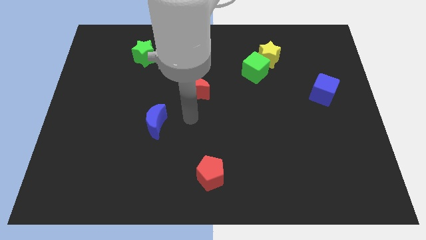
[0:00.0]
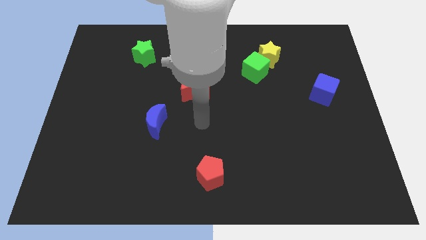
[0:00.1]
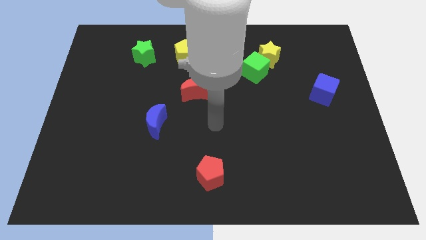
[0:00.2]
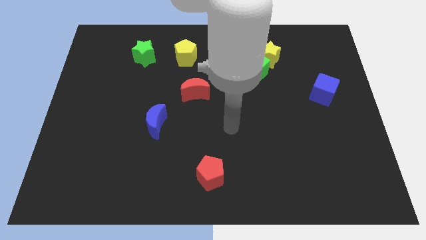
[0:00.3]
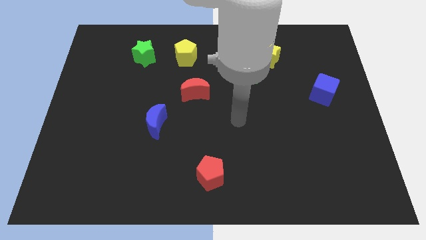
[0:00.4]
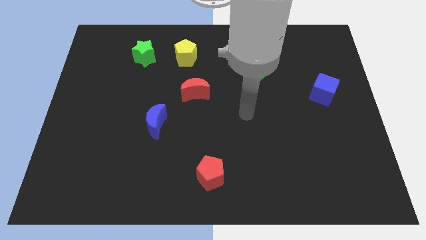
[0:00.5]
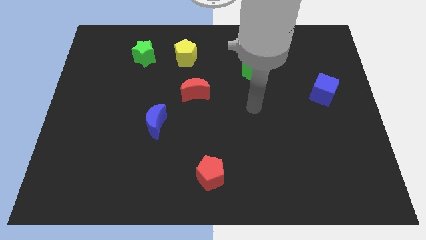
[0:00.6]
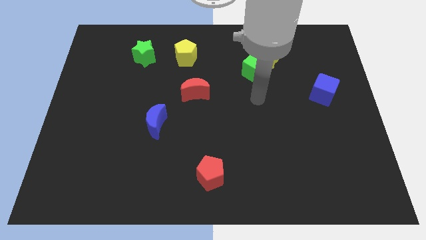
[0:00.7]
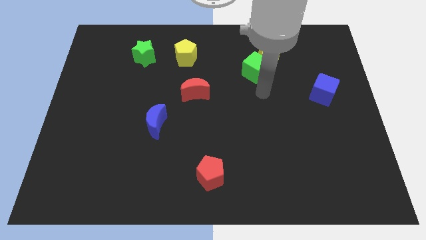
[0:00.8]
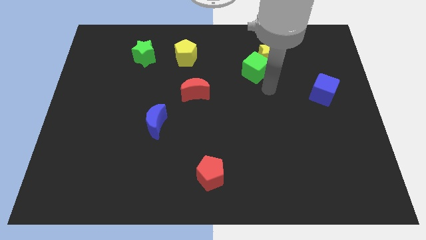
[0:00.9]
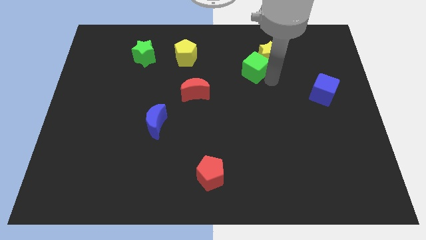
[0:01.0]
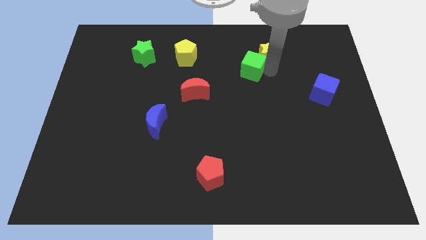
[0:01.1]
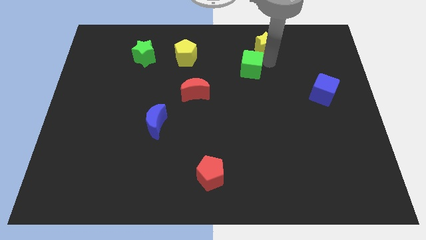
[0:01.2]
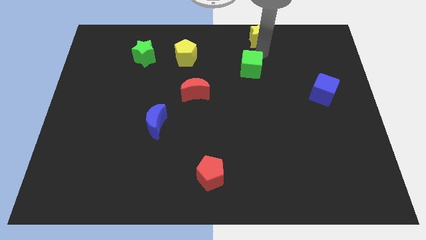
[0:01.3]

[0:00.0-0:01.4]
move the green cube away from the yellow star

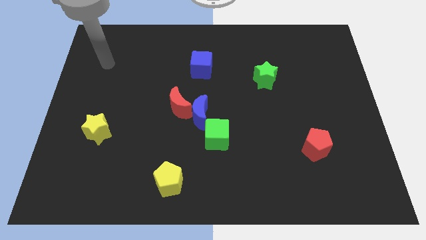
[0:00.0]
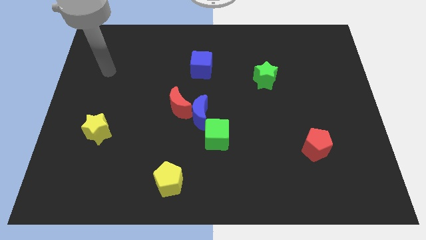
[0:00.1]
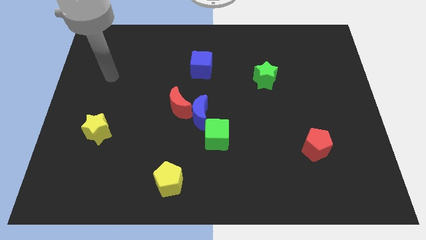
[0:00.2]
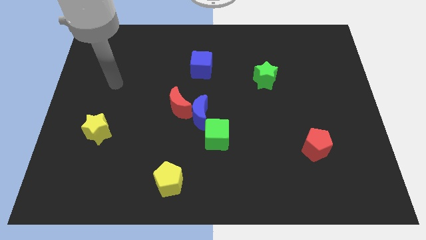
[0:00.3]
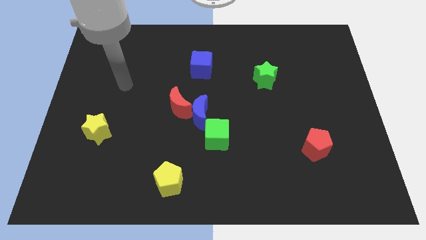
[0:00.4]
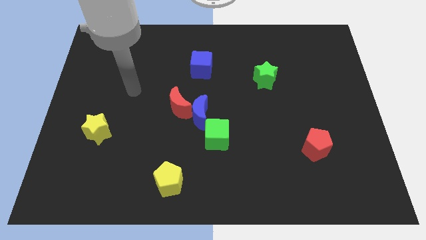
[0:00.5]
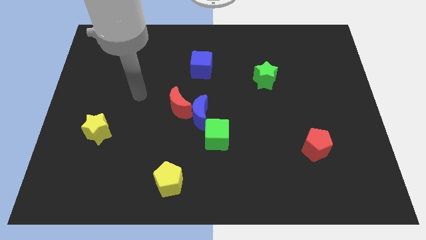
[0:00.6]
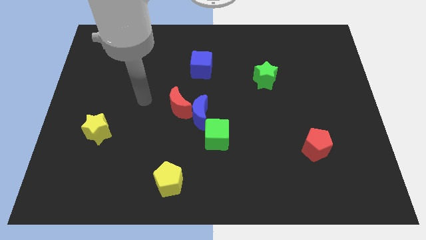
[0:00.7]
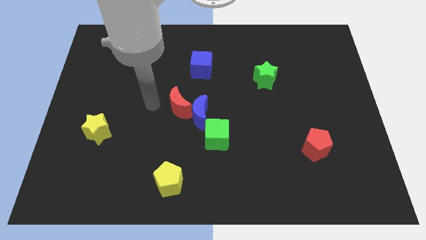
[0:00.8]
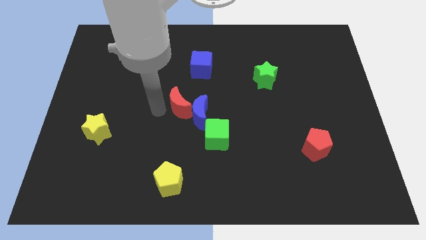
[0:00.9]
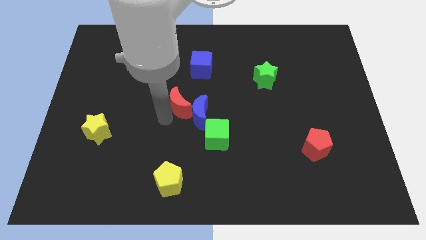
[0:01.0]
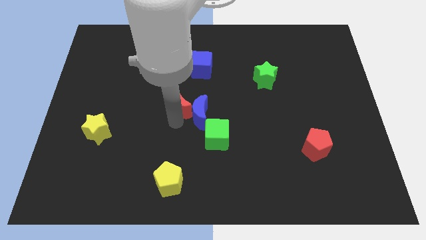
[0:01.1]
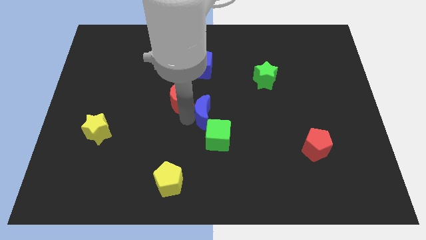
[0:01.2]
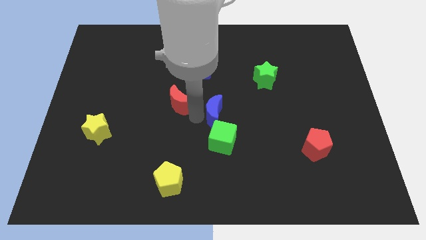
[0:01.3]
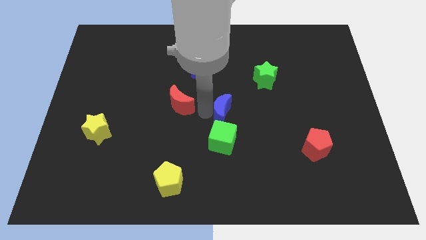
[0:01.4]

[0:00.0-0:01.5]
move the red moon away from the blue moon

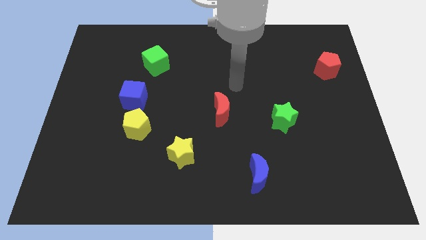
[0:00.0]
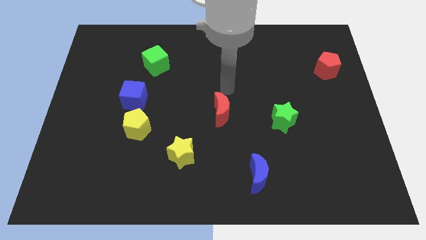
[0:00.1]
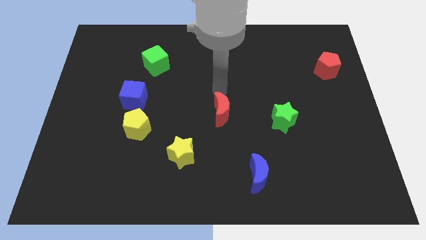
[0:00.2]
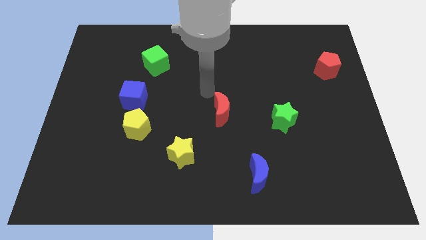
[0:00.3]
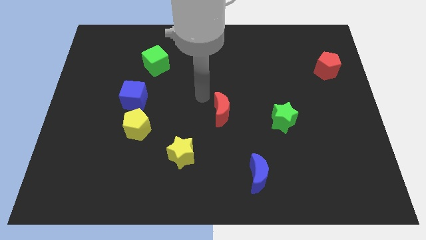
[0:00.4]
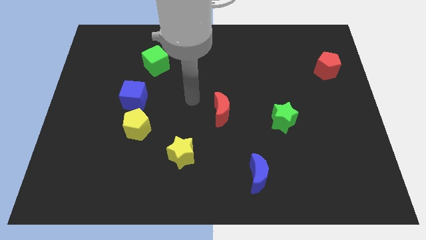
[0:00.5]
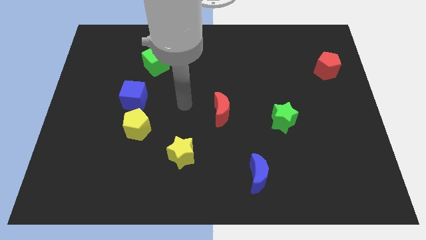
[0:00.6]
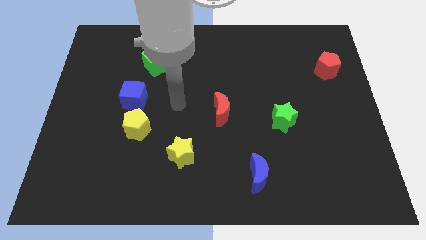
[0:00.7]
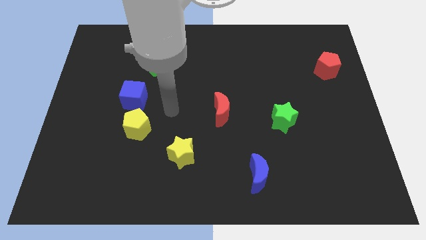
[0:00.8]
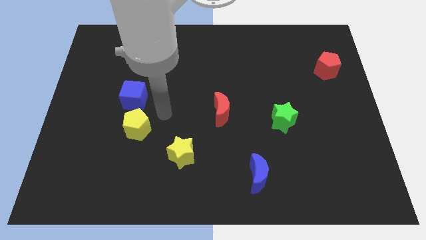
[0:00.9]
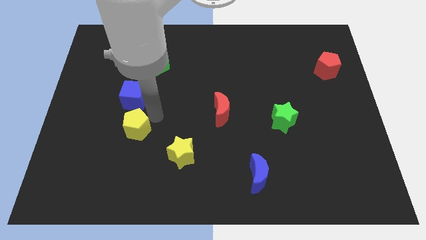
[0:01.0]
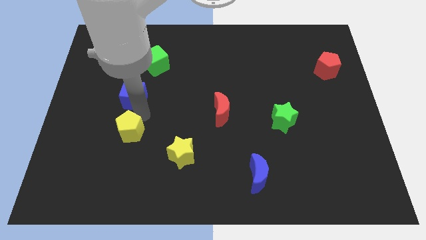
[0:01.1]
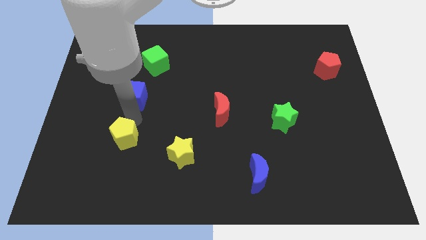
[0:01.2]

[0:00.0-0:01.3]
move the blue cube away from the yellow pentagon

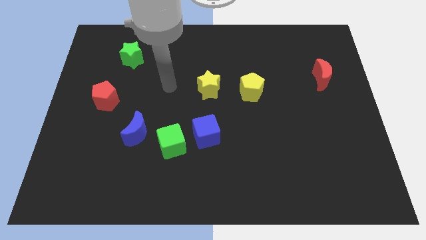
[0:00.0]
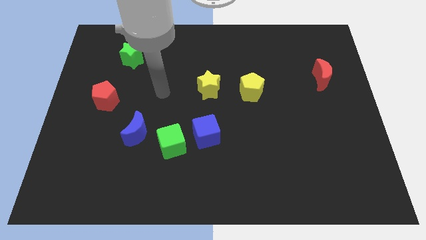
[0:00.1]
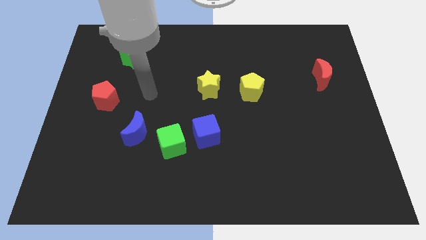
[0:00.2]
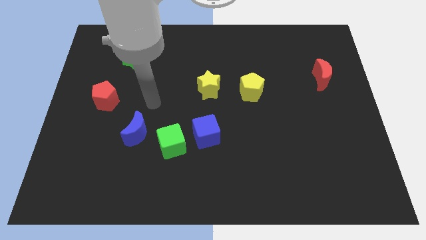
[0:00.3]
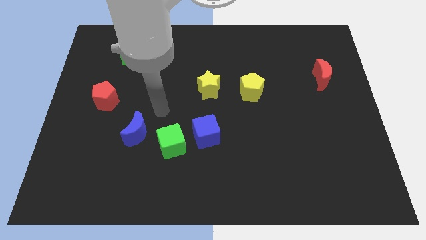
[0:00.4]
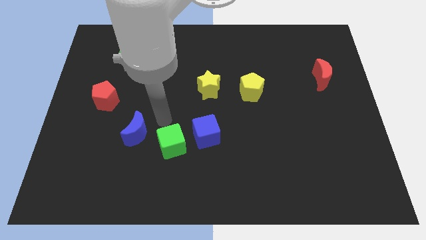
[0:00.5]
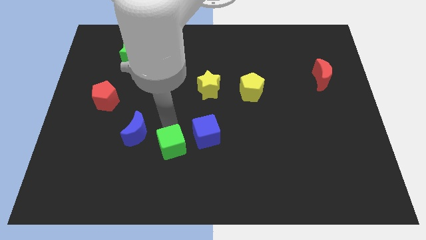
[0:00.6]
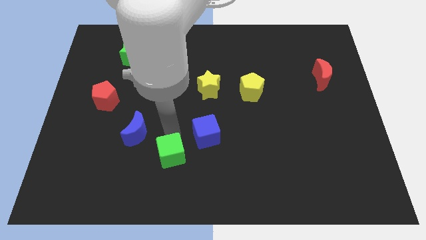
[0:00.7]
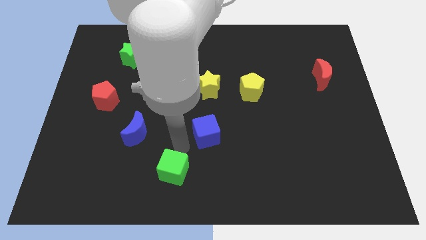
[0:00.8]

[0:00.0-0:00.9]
move the blue cube away from the green cube

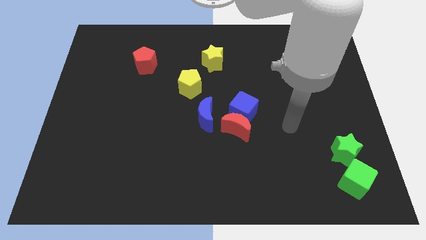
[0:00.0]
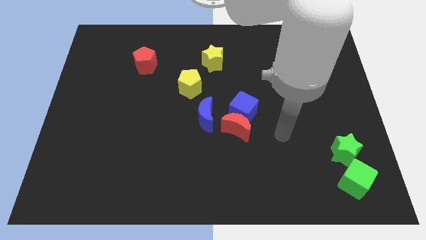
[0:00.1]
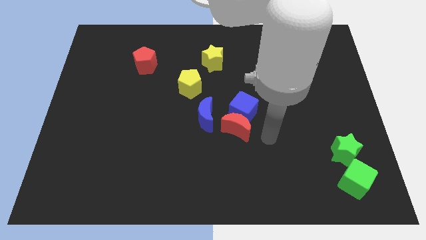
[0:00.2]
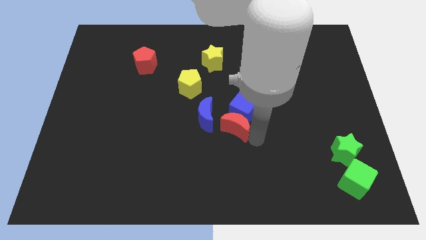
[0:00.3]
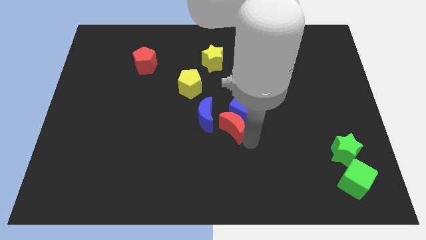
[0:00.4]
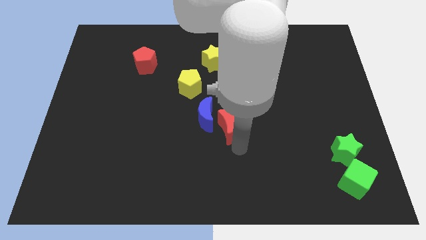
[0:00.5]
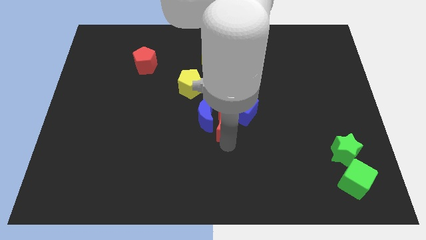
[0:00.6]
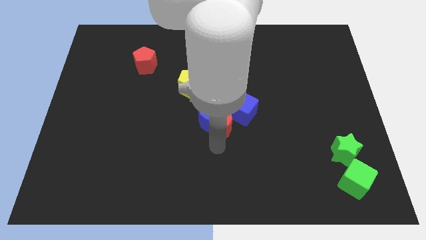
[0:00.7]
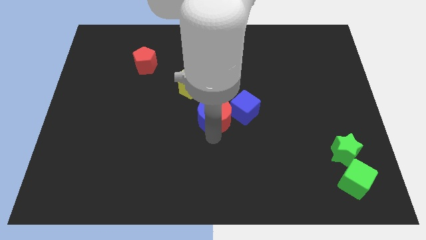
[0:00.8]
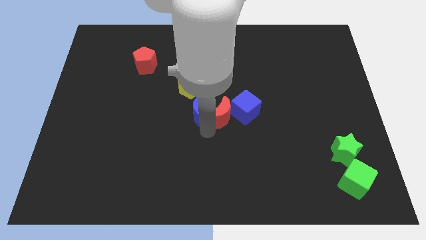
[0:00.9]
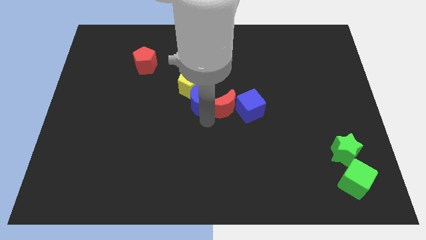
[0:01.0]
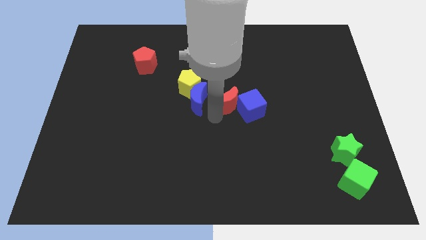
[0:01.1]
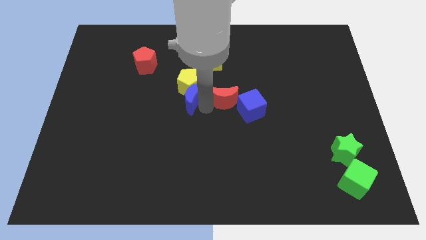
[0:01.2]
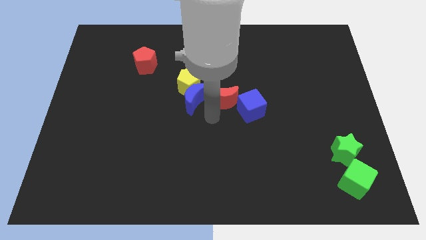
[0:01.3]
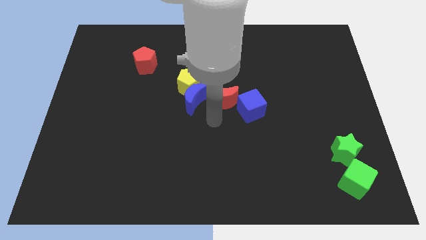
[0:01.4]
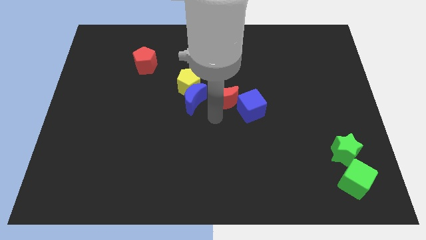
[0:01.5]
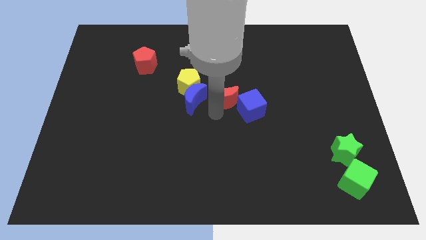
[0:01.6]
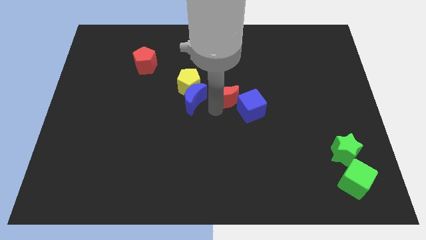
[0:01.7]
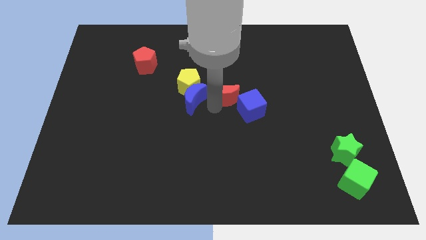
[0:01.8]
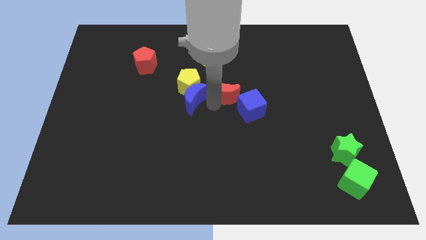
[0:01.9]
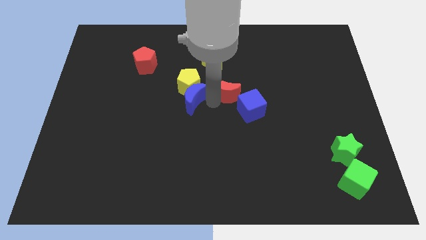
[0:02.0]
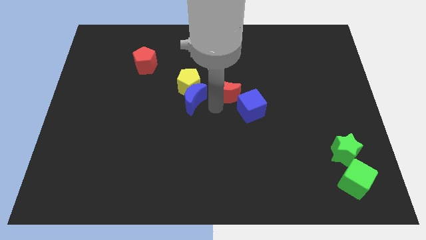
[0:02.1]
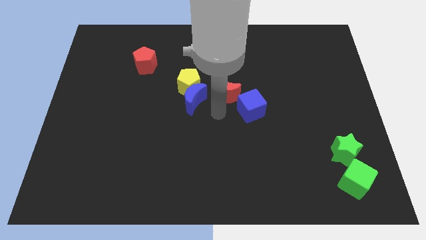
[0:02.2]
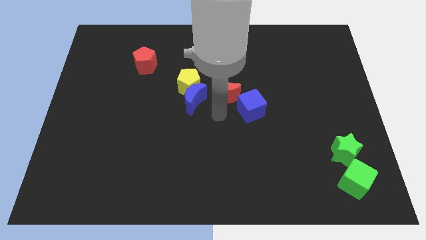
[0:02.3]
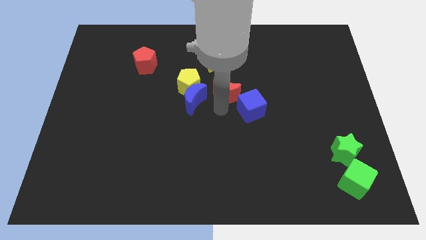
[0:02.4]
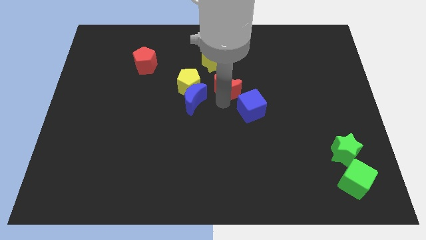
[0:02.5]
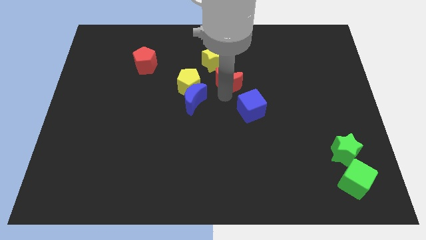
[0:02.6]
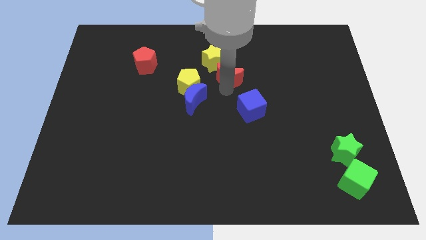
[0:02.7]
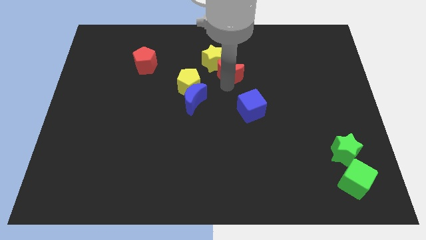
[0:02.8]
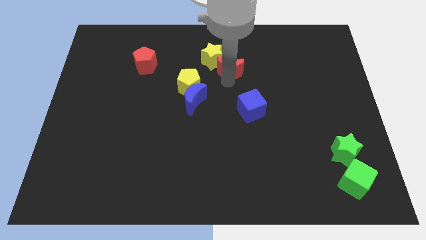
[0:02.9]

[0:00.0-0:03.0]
pull the red moon apart from the blue cube and blue moon

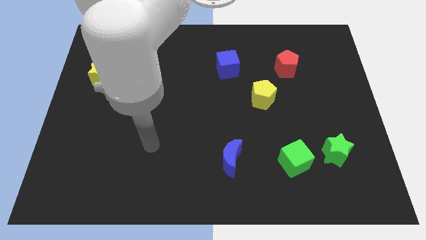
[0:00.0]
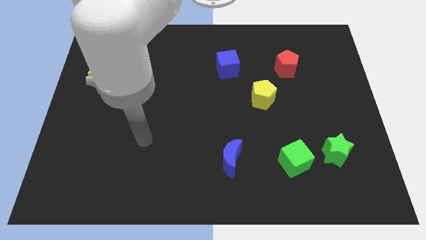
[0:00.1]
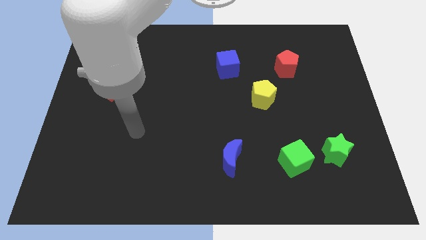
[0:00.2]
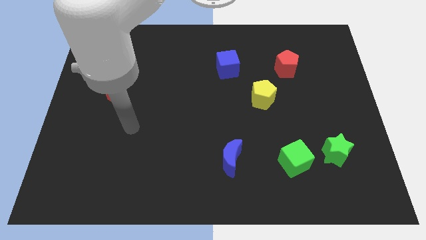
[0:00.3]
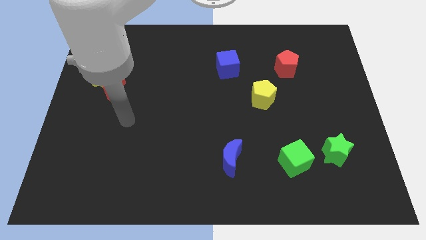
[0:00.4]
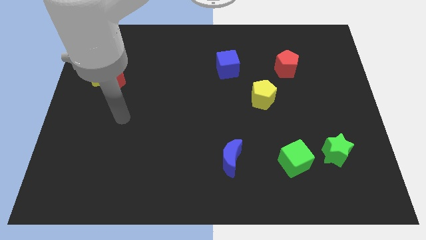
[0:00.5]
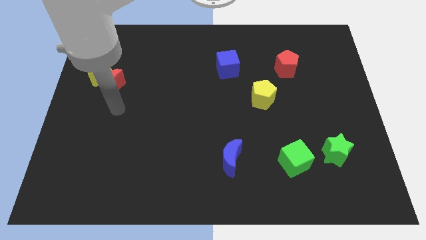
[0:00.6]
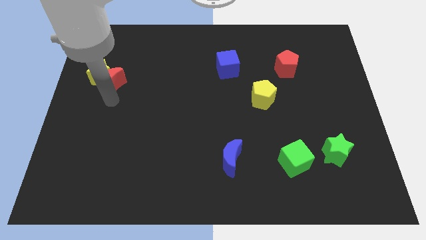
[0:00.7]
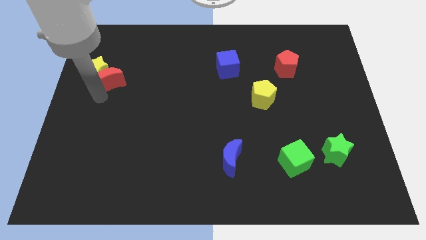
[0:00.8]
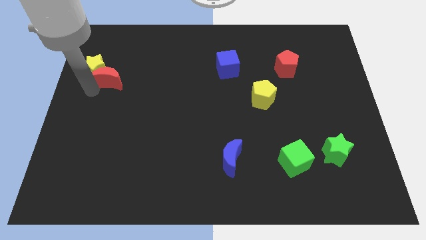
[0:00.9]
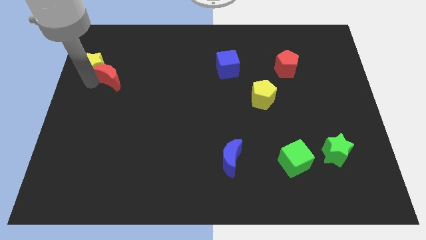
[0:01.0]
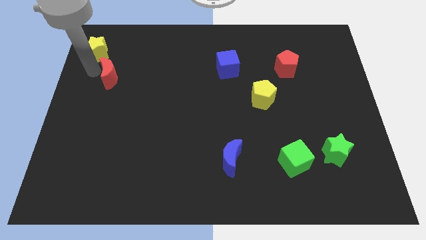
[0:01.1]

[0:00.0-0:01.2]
separate the red moon from the yellow star

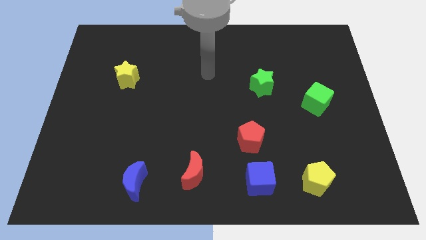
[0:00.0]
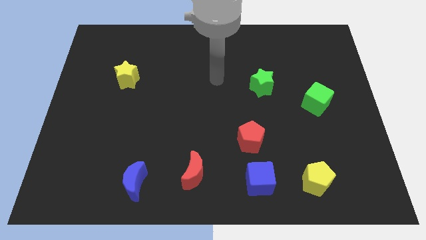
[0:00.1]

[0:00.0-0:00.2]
separate the red pentagon from the blue cube
